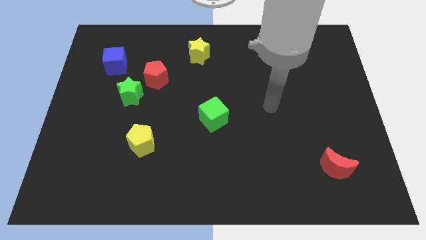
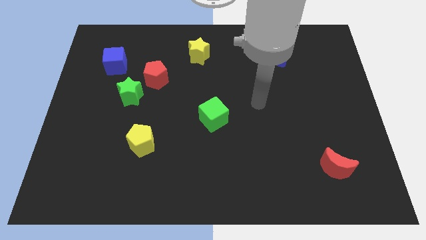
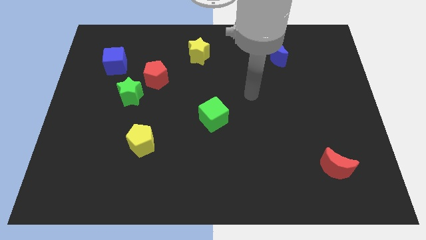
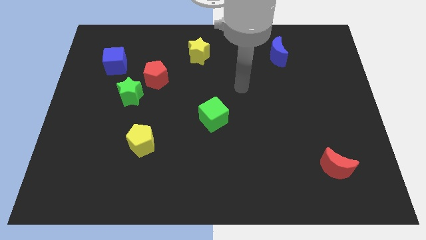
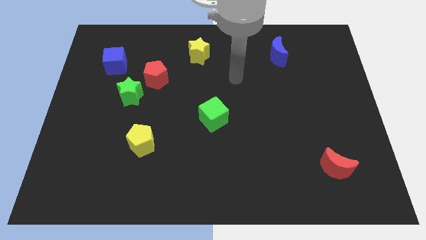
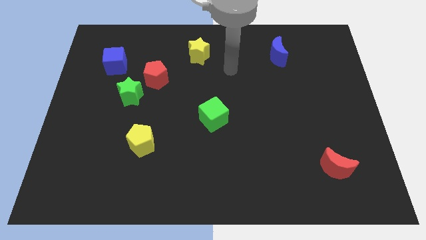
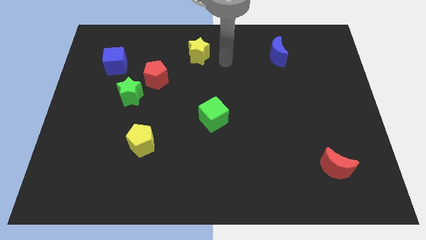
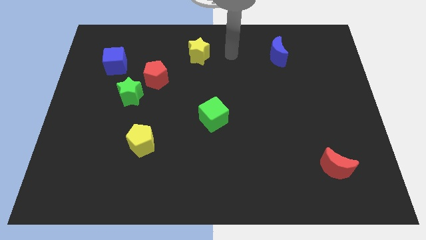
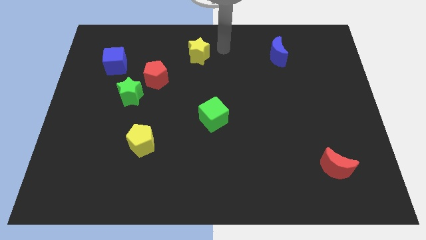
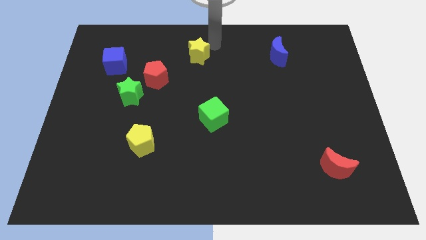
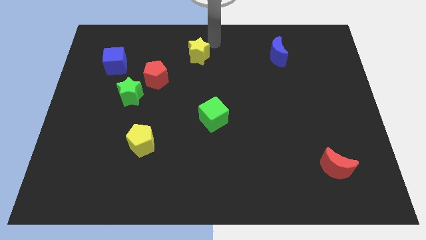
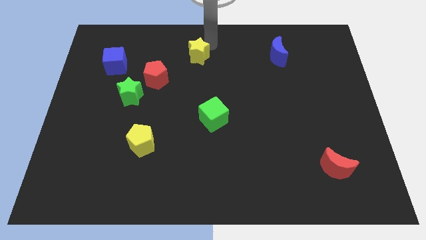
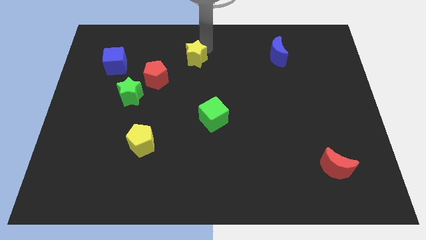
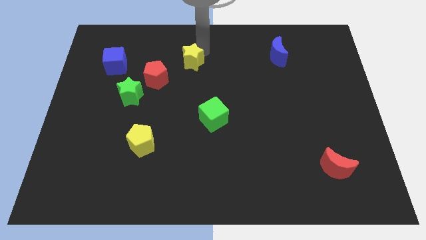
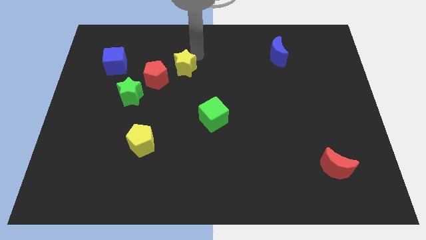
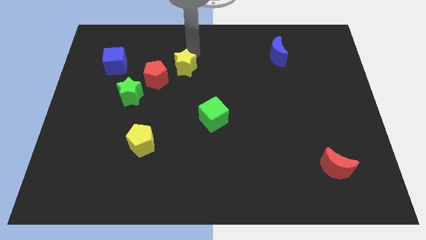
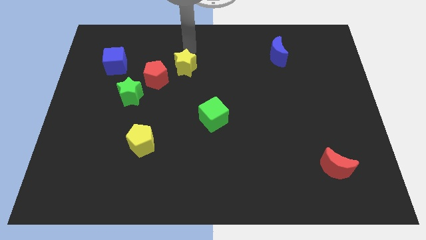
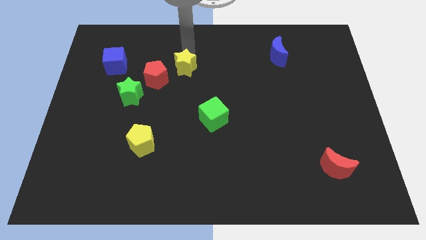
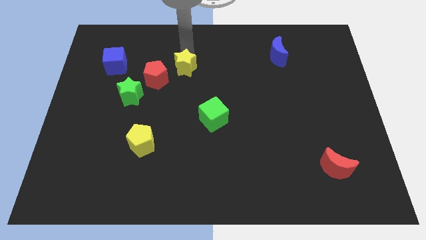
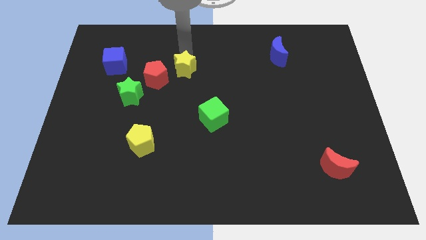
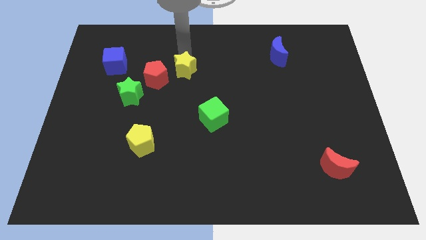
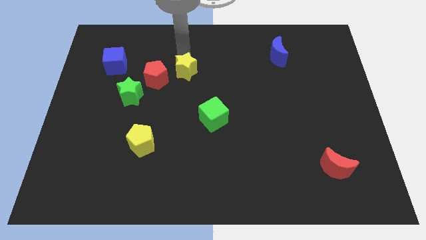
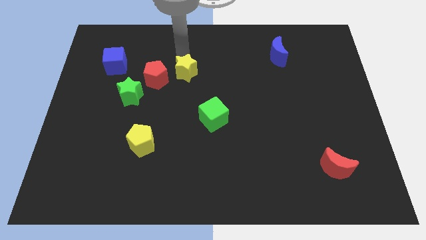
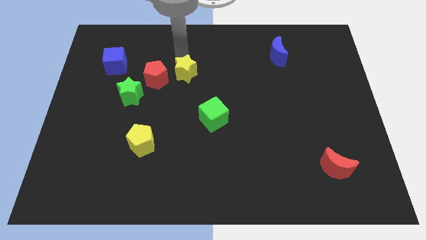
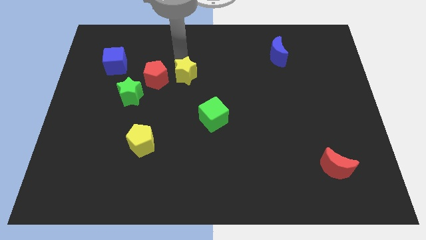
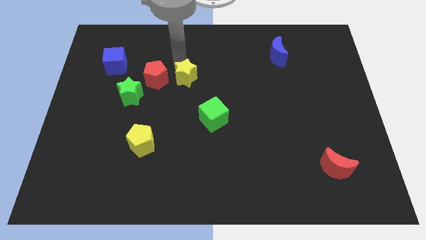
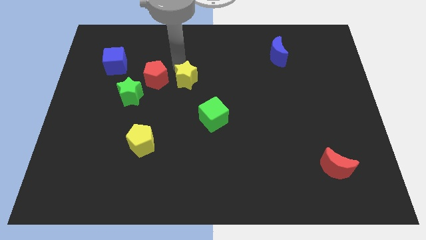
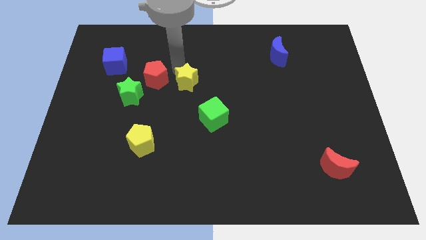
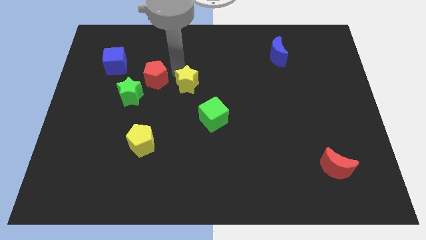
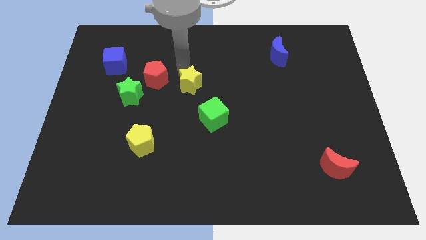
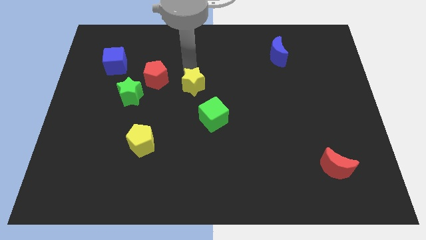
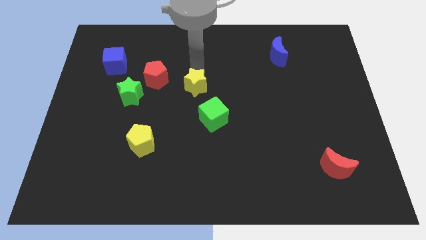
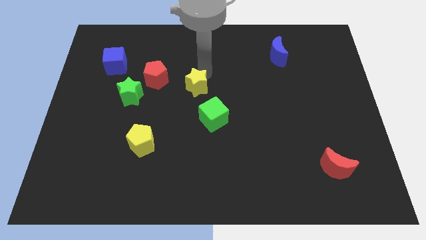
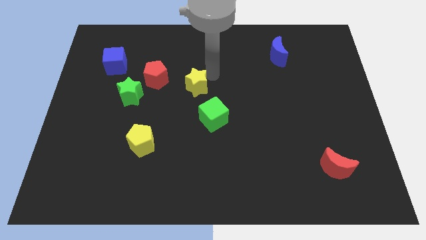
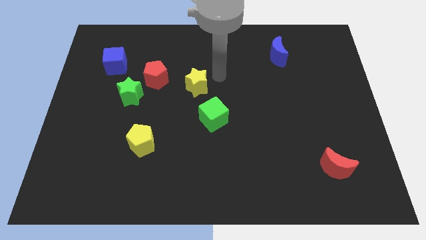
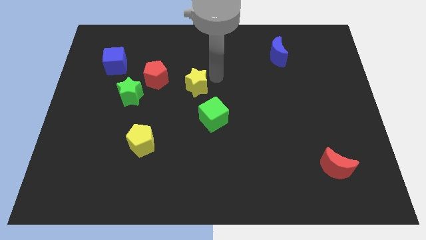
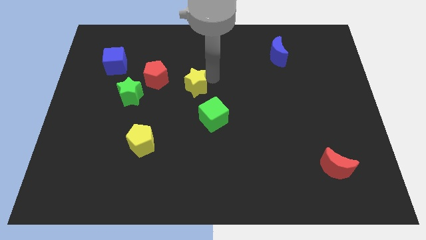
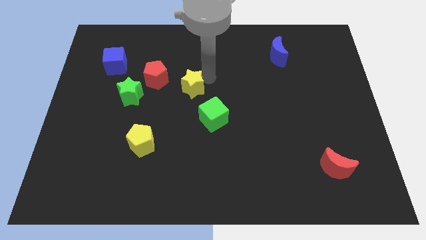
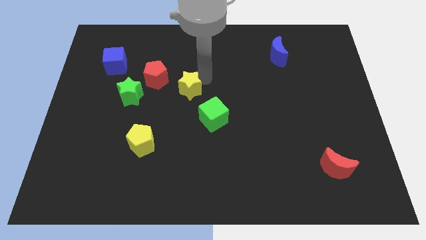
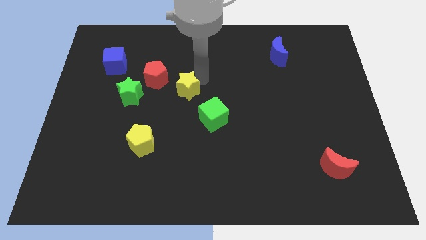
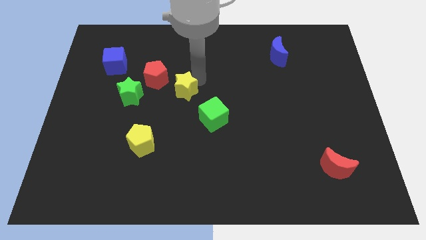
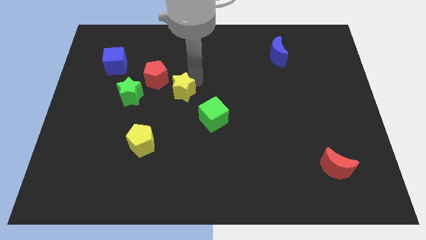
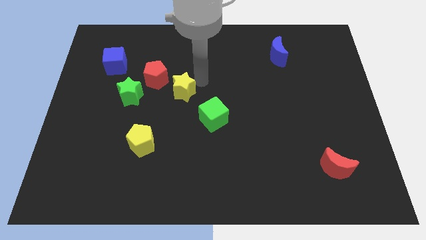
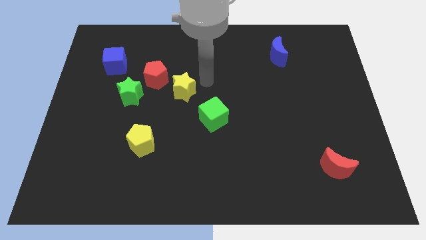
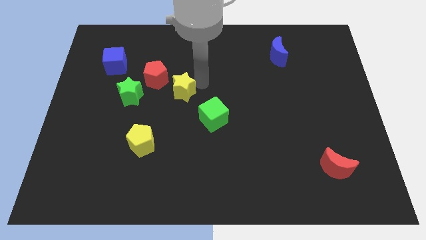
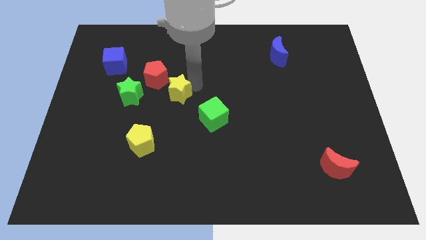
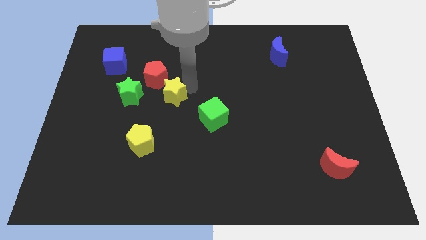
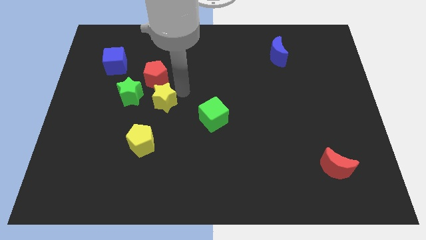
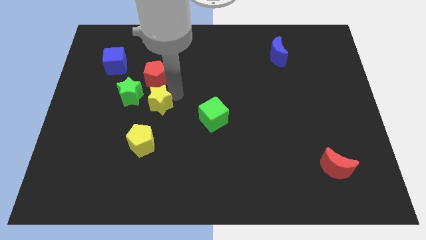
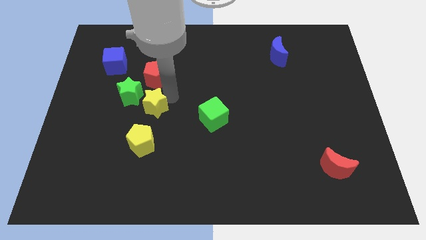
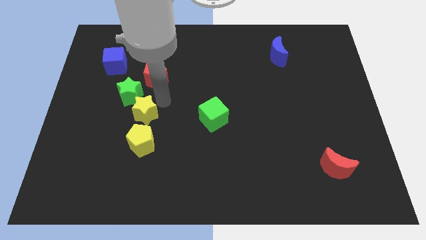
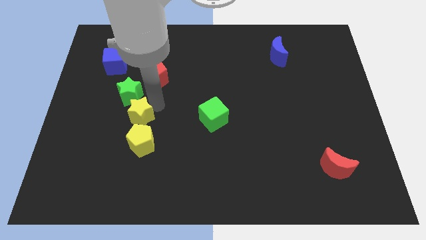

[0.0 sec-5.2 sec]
push the yellow star to the top left side of the yellow pentagon

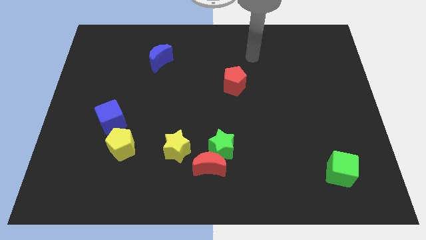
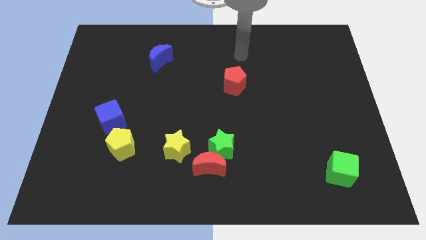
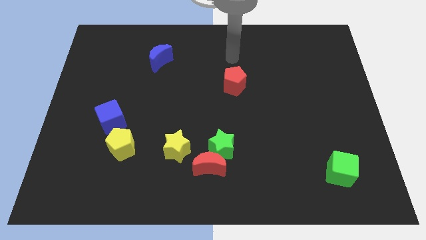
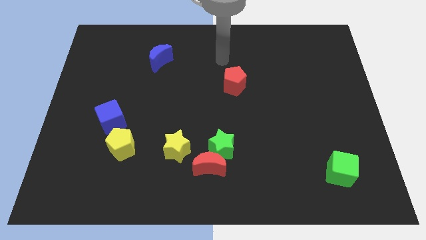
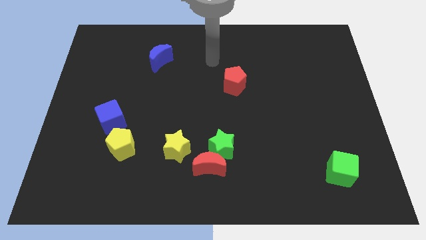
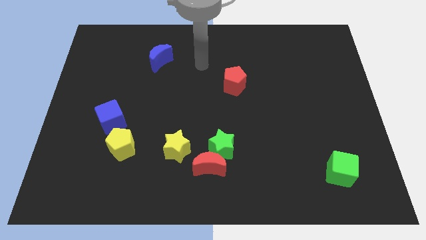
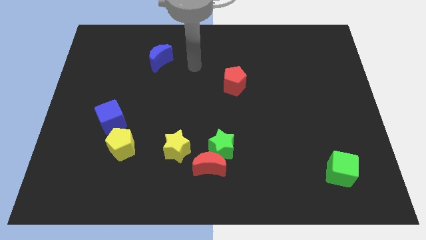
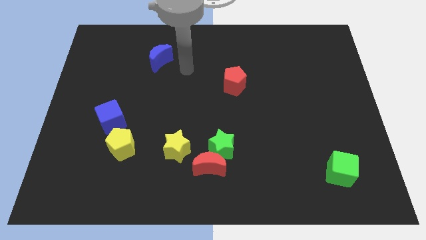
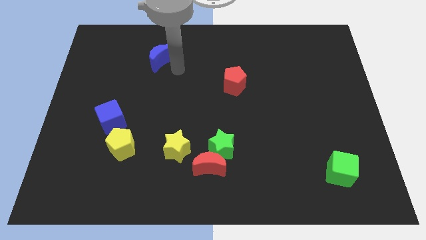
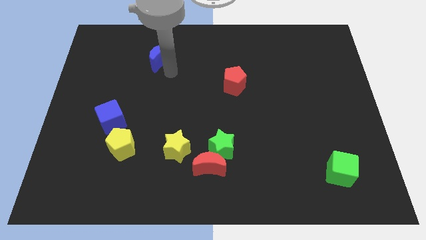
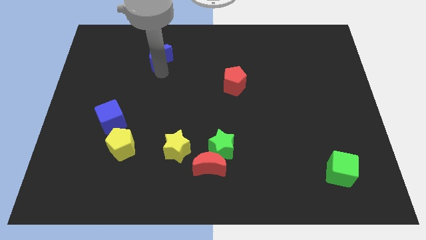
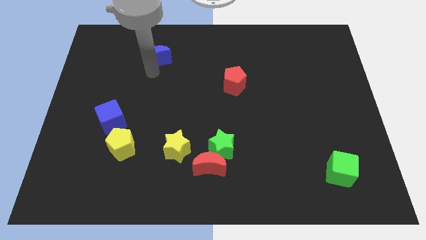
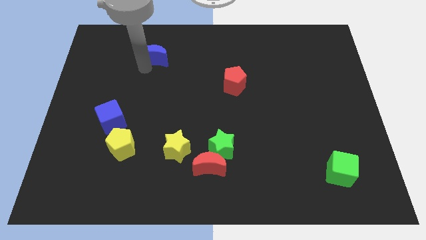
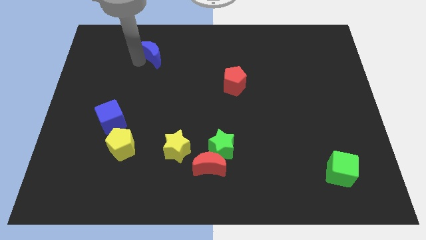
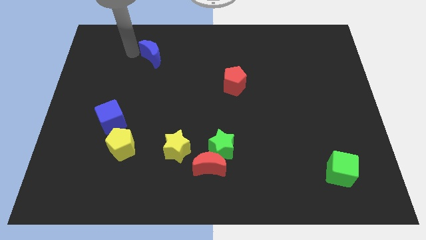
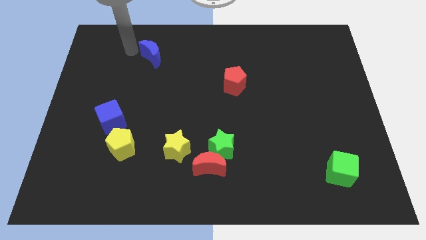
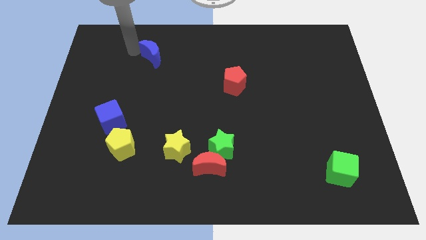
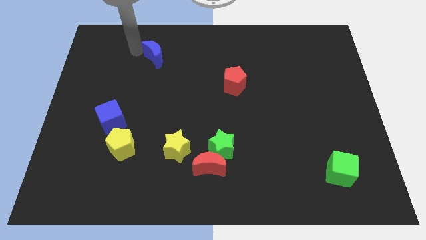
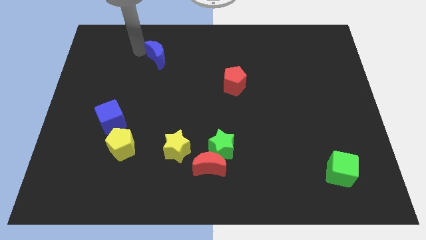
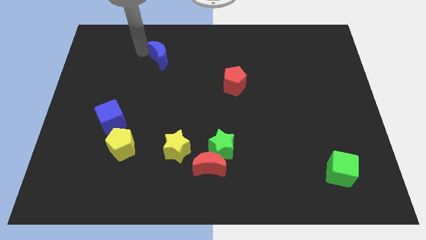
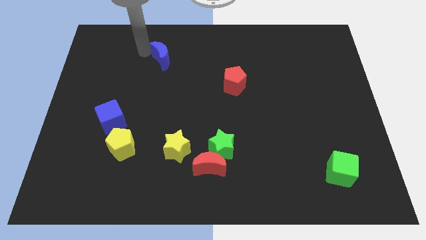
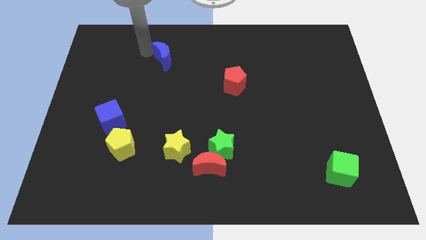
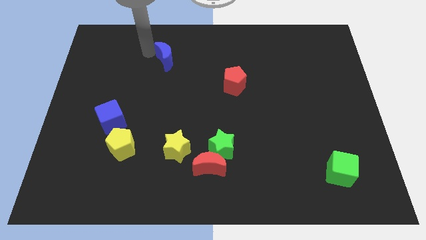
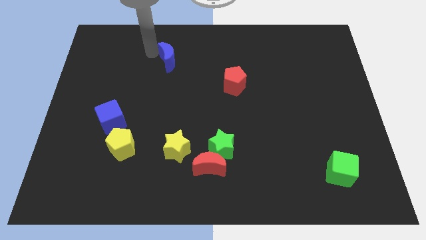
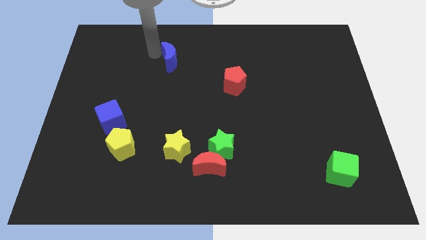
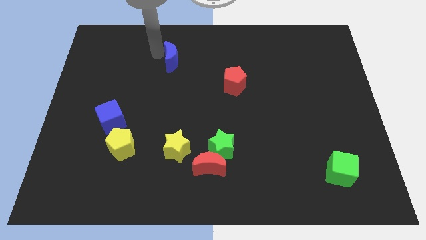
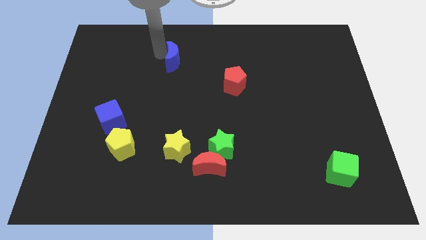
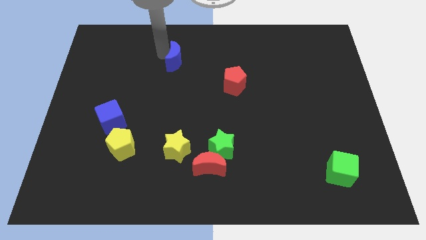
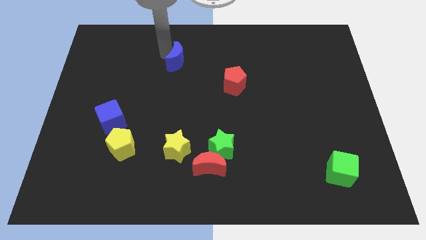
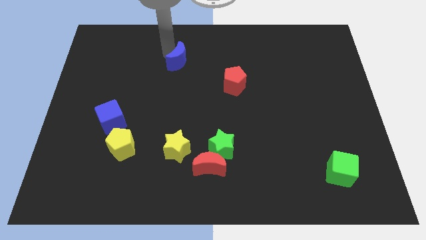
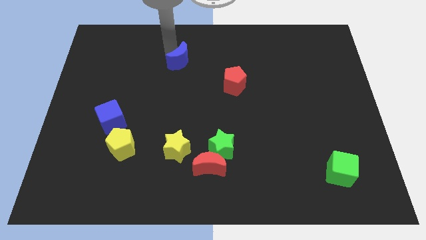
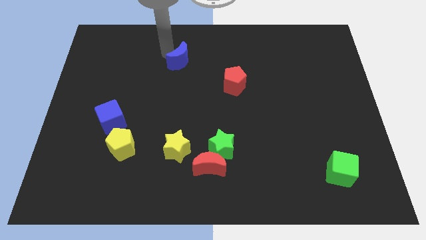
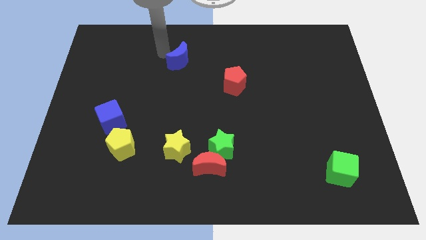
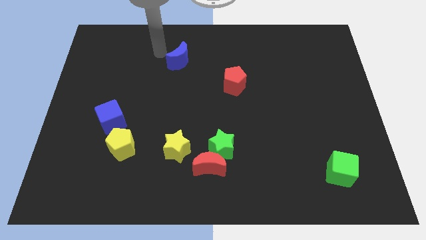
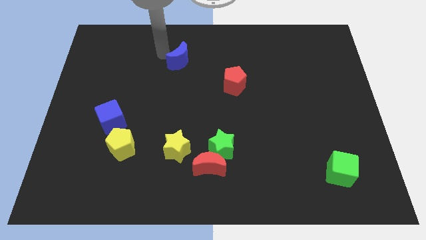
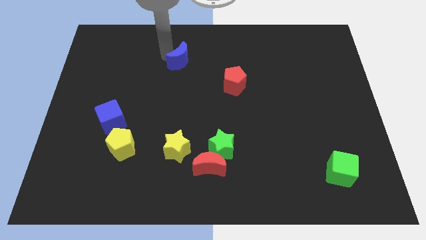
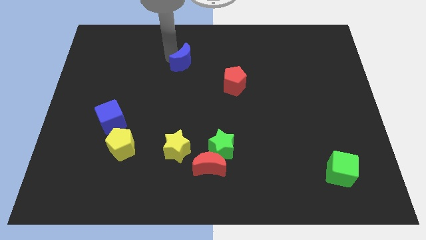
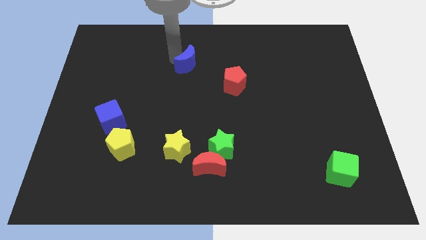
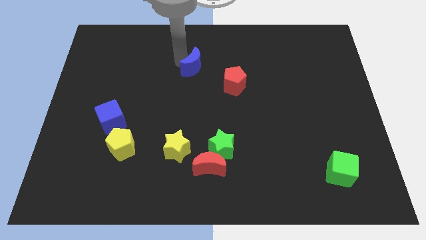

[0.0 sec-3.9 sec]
move the blue moon diagonally up and to the left of the red pentagon
